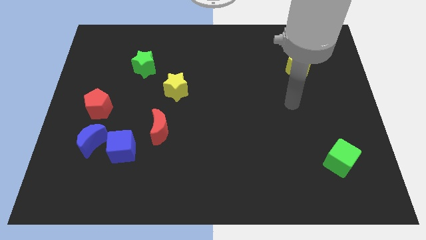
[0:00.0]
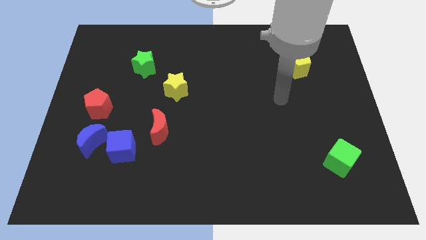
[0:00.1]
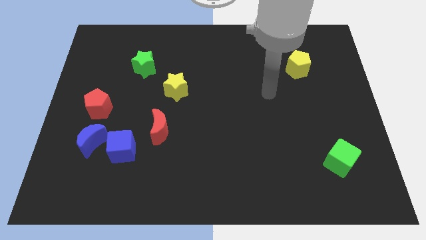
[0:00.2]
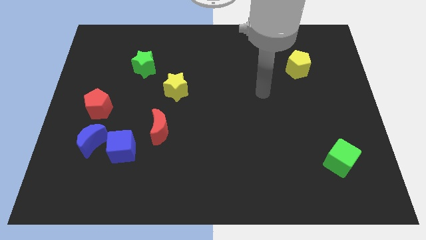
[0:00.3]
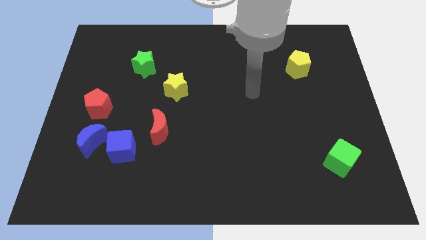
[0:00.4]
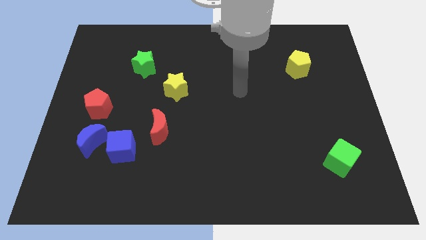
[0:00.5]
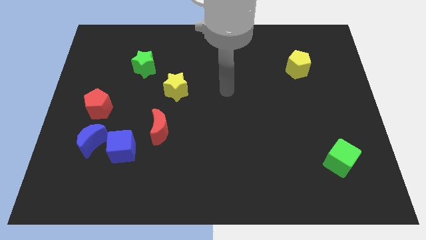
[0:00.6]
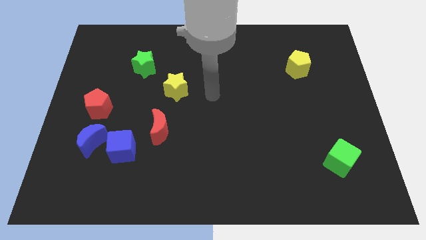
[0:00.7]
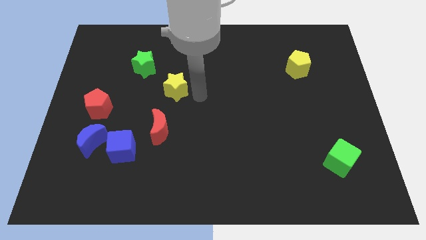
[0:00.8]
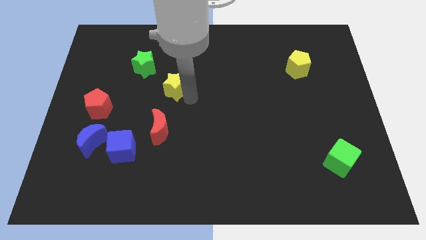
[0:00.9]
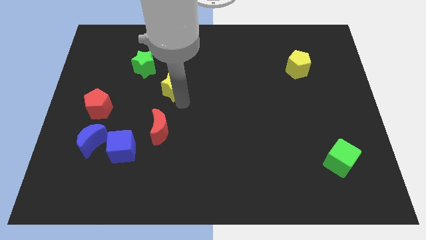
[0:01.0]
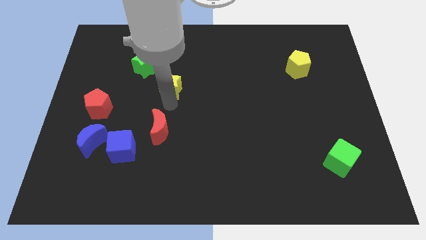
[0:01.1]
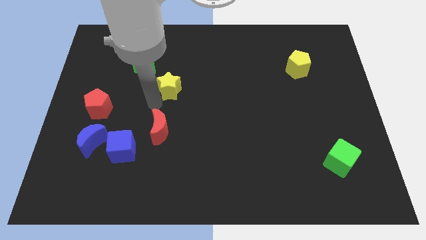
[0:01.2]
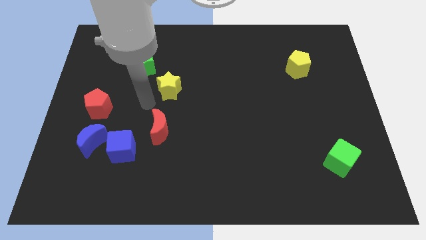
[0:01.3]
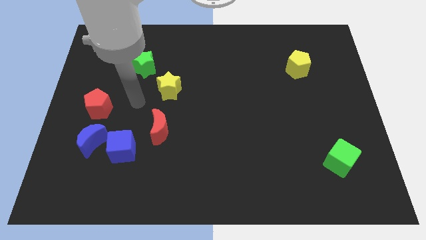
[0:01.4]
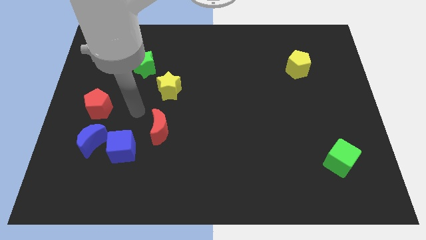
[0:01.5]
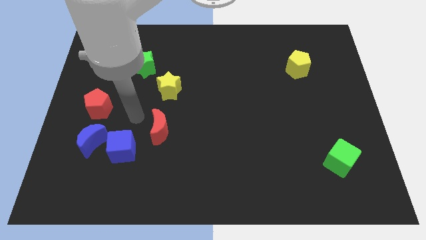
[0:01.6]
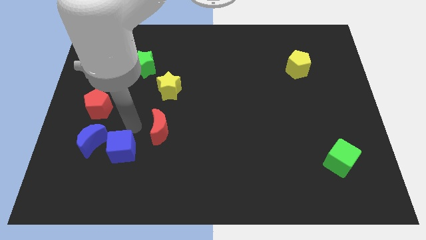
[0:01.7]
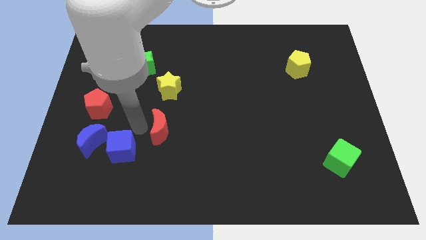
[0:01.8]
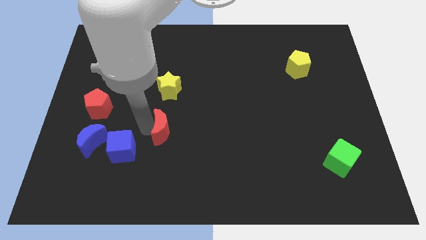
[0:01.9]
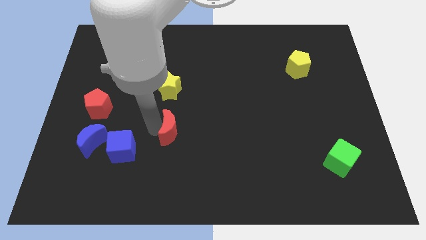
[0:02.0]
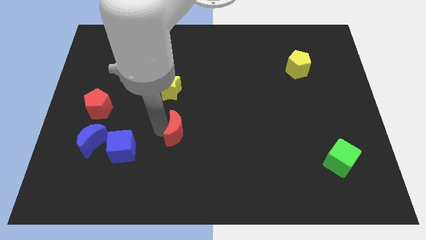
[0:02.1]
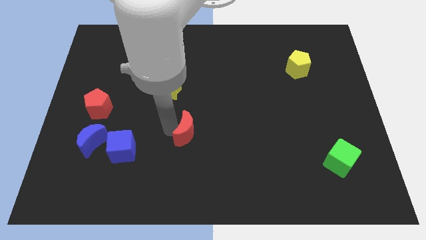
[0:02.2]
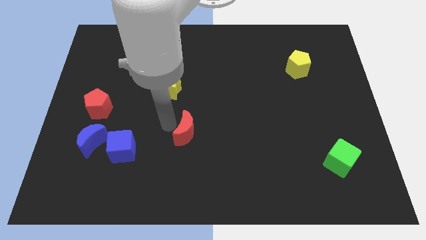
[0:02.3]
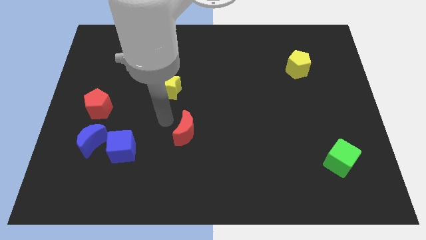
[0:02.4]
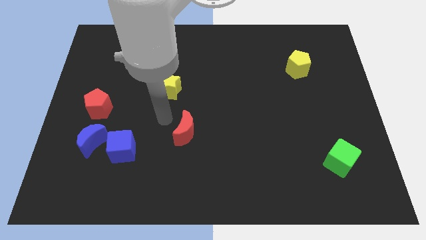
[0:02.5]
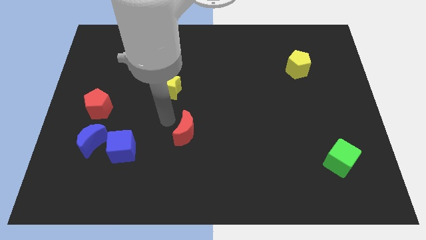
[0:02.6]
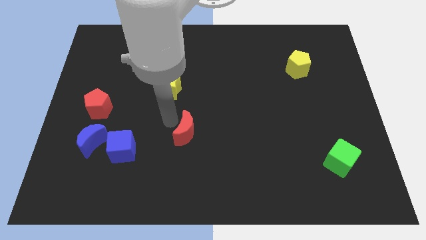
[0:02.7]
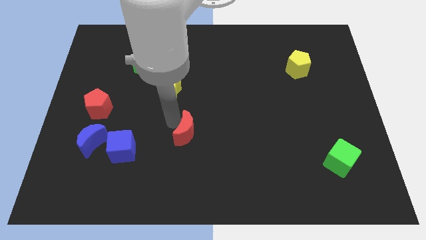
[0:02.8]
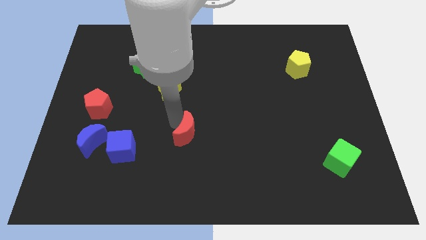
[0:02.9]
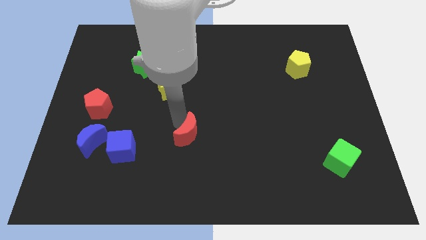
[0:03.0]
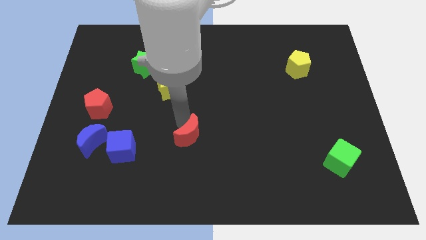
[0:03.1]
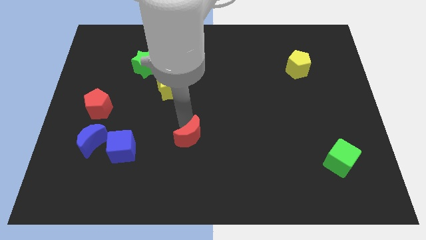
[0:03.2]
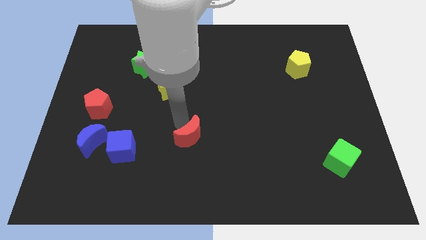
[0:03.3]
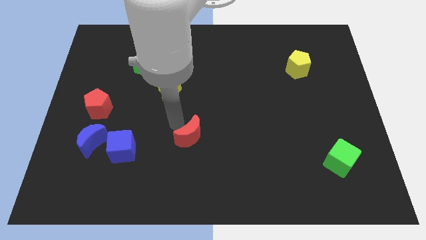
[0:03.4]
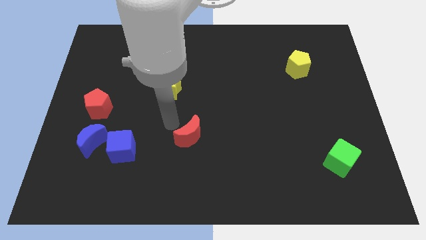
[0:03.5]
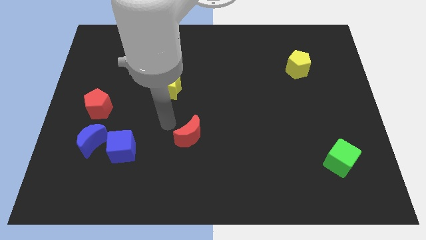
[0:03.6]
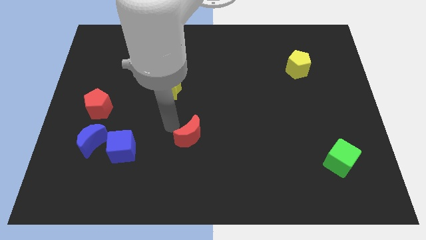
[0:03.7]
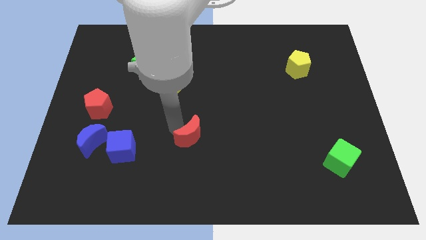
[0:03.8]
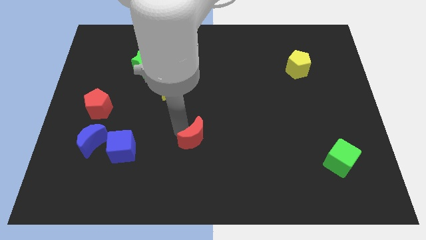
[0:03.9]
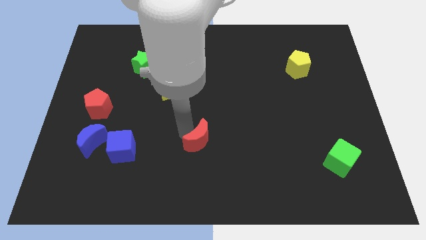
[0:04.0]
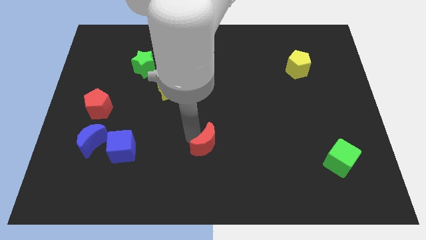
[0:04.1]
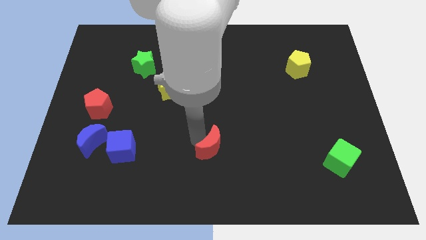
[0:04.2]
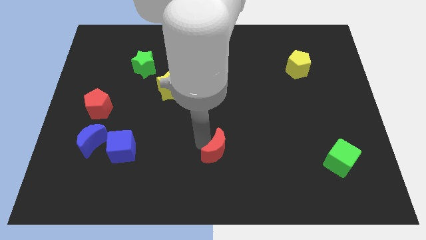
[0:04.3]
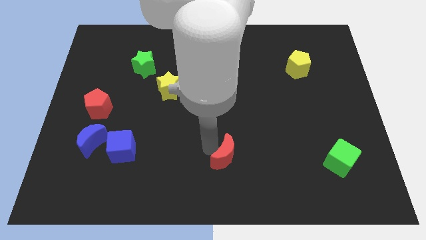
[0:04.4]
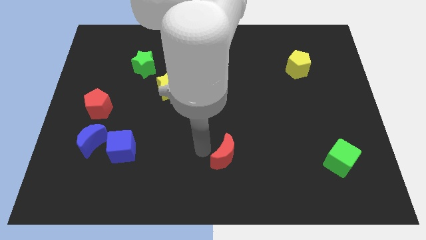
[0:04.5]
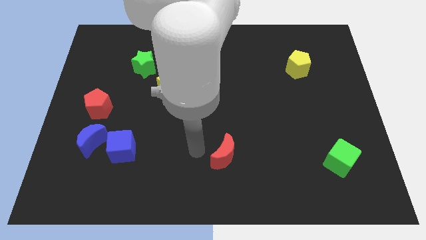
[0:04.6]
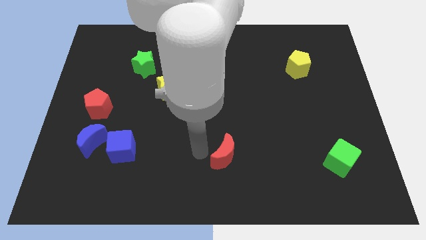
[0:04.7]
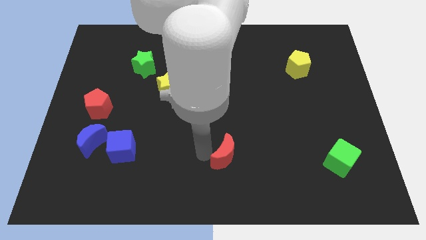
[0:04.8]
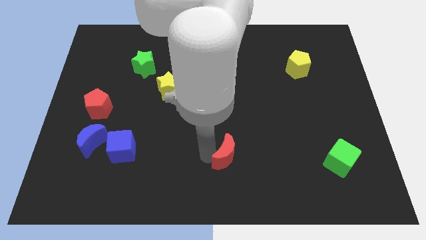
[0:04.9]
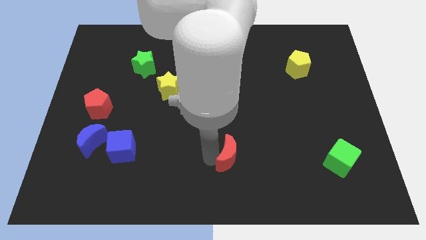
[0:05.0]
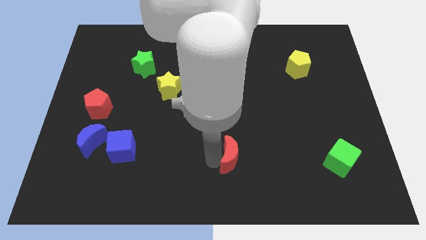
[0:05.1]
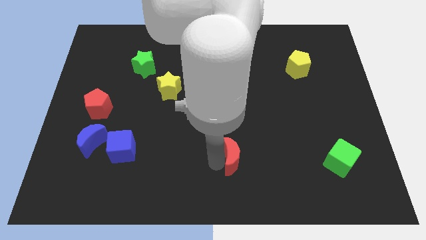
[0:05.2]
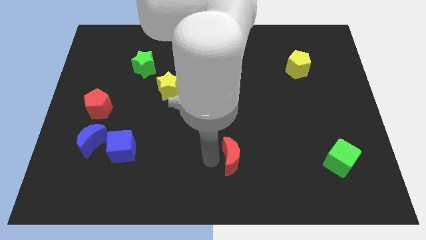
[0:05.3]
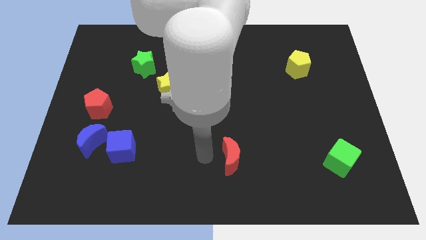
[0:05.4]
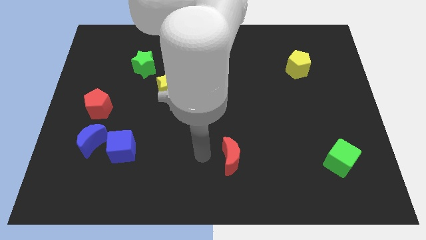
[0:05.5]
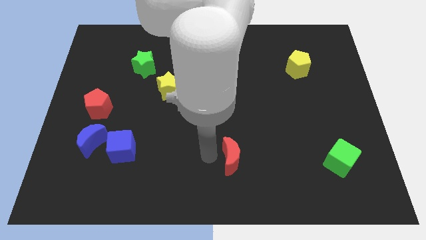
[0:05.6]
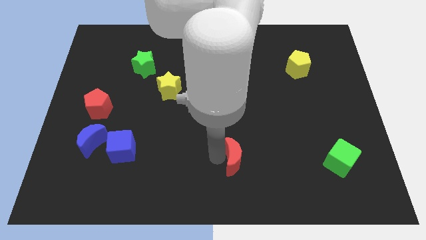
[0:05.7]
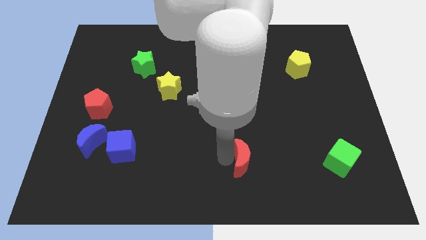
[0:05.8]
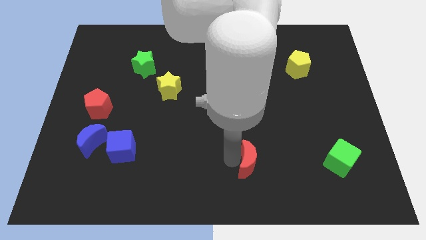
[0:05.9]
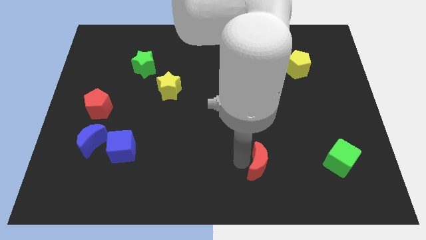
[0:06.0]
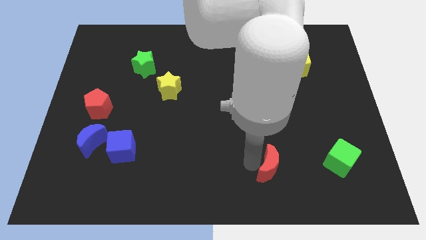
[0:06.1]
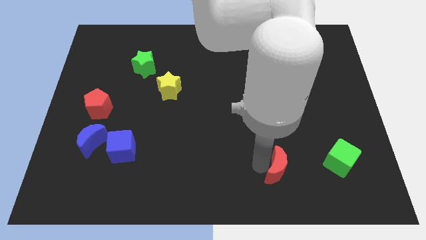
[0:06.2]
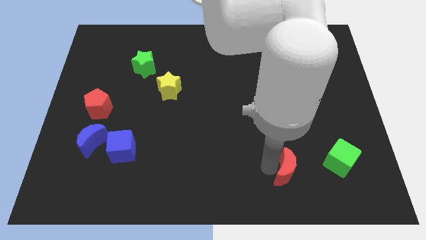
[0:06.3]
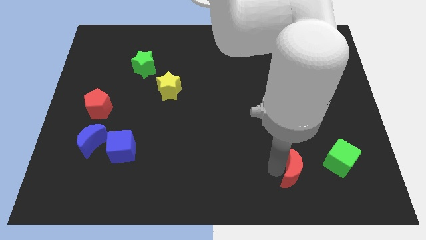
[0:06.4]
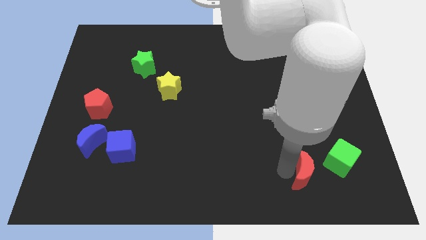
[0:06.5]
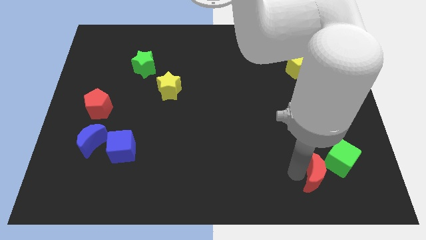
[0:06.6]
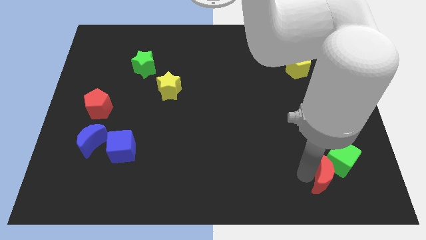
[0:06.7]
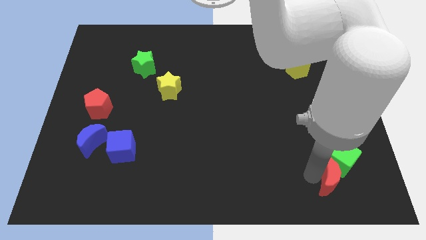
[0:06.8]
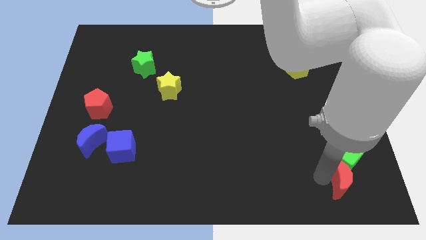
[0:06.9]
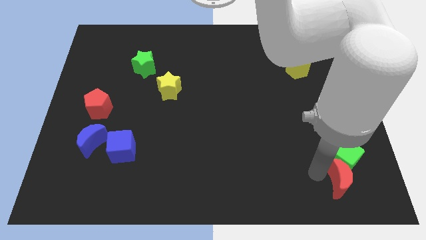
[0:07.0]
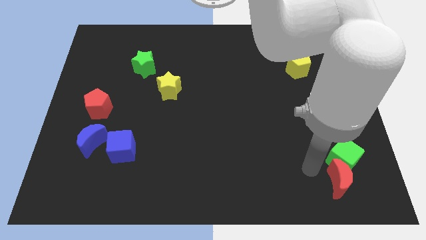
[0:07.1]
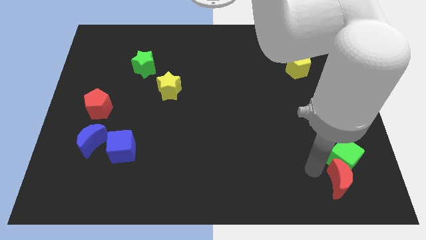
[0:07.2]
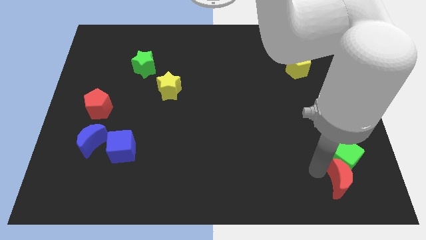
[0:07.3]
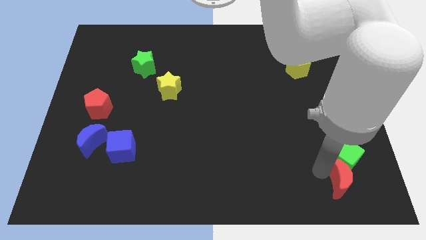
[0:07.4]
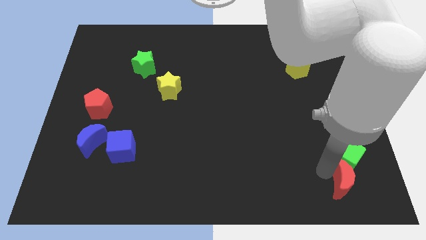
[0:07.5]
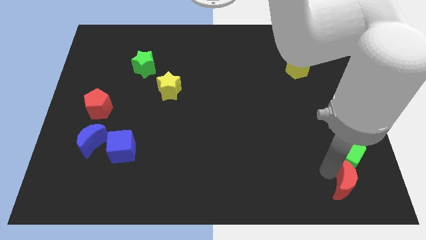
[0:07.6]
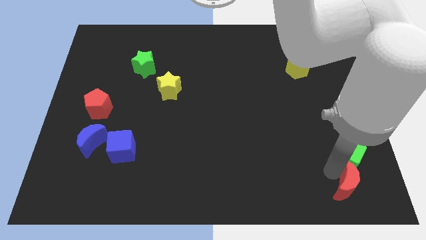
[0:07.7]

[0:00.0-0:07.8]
put the red moon to the bottom right corner
